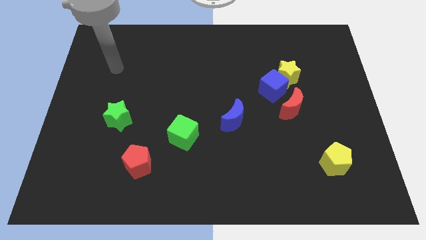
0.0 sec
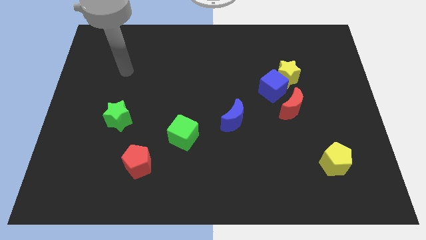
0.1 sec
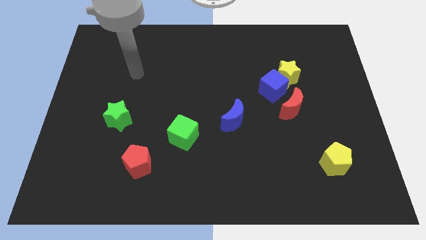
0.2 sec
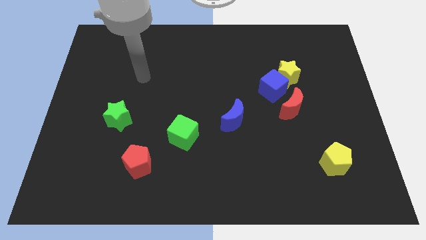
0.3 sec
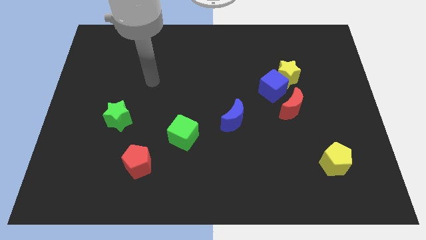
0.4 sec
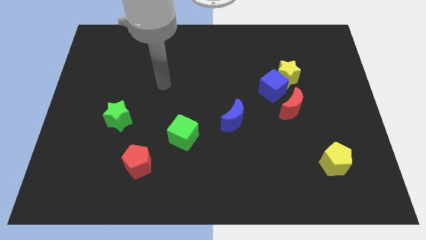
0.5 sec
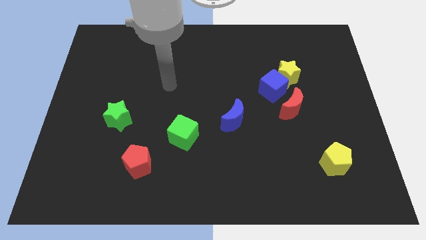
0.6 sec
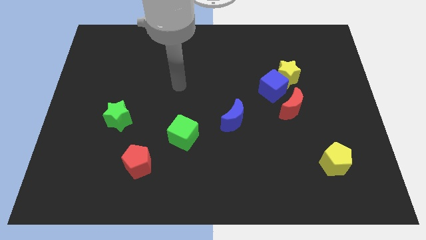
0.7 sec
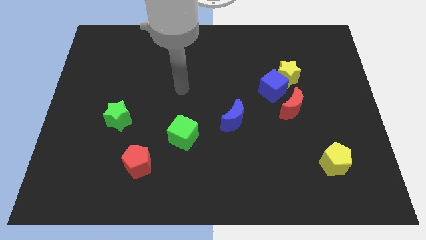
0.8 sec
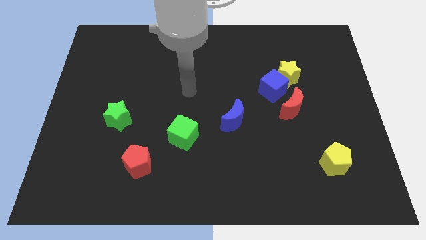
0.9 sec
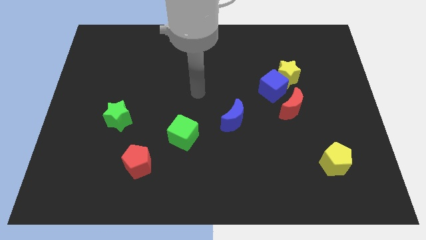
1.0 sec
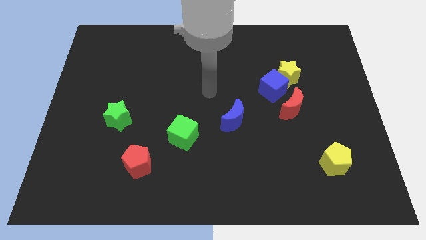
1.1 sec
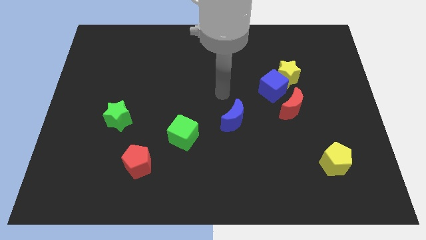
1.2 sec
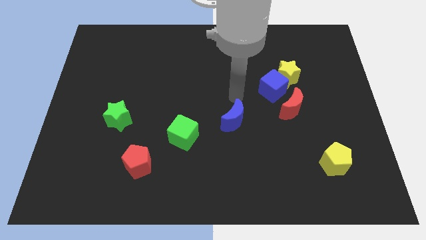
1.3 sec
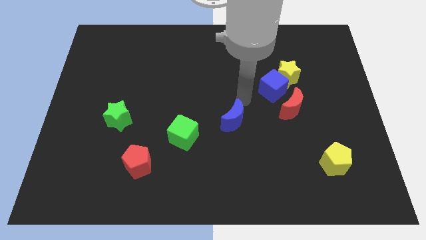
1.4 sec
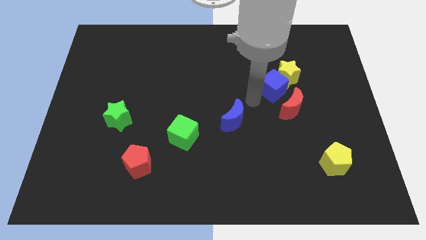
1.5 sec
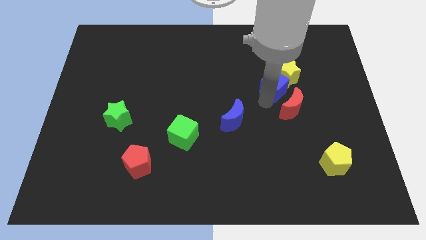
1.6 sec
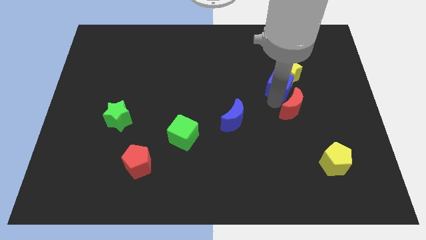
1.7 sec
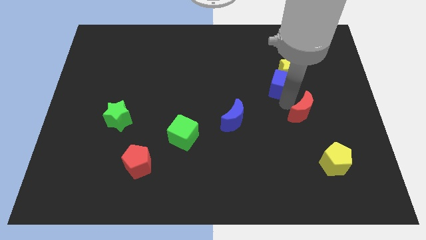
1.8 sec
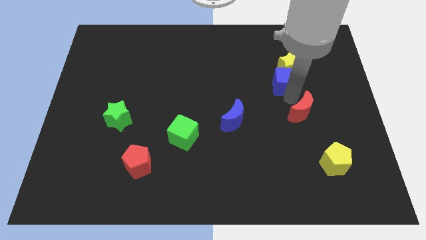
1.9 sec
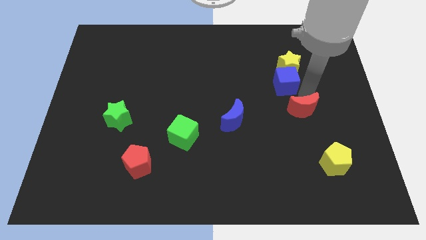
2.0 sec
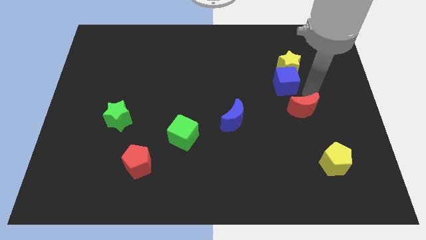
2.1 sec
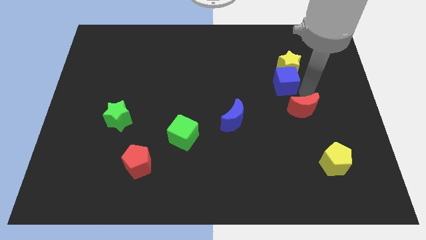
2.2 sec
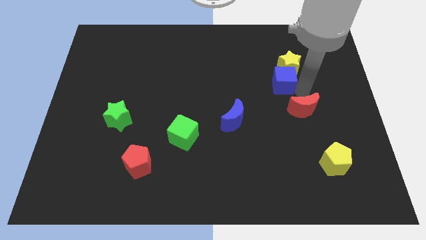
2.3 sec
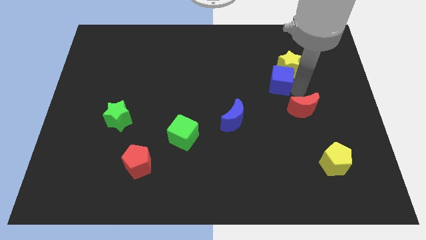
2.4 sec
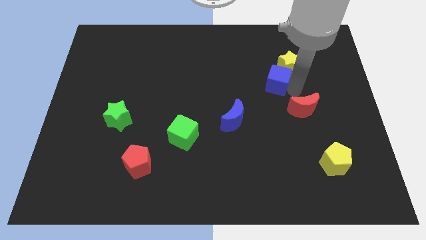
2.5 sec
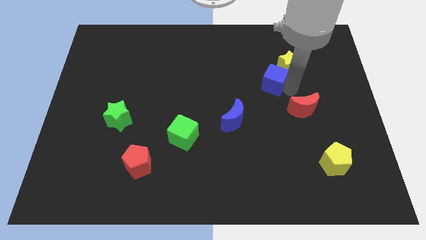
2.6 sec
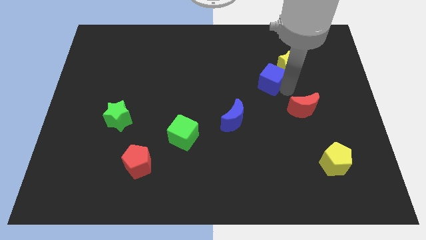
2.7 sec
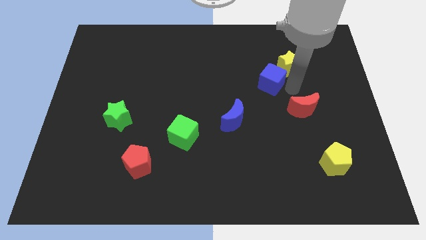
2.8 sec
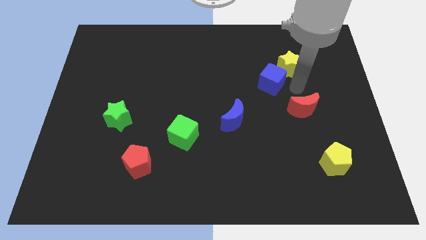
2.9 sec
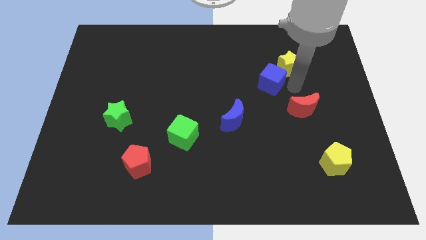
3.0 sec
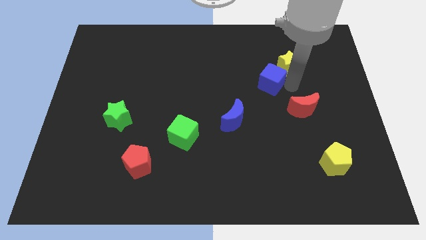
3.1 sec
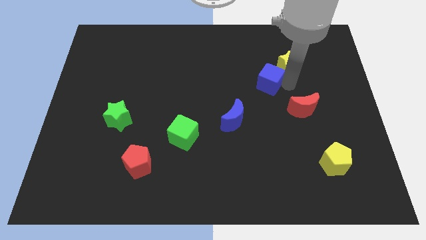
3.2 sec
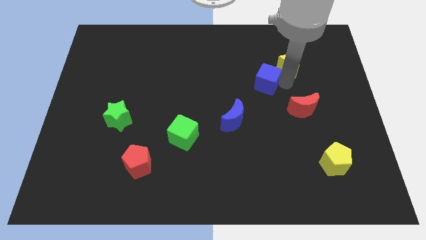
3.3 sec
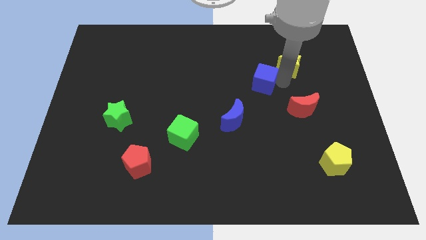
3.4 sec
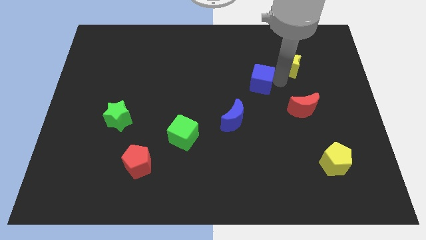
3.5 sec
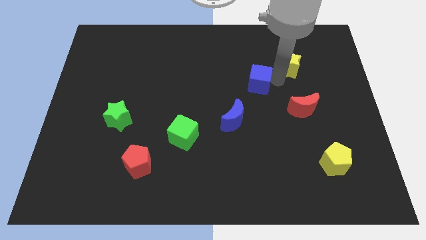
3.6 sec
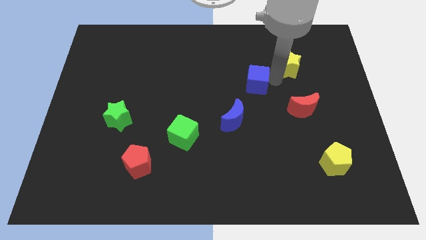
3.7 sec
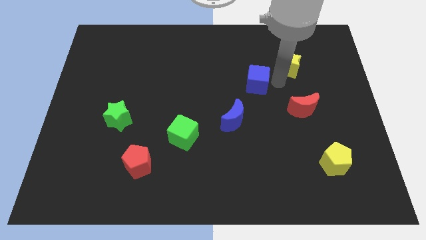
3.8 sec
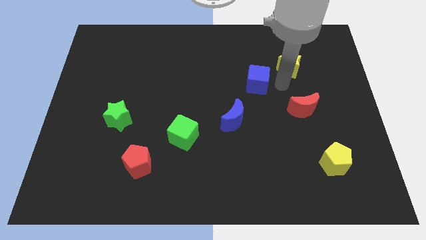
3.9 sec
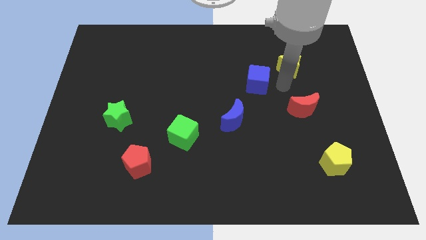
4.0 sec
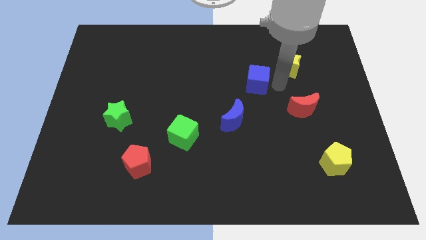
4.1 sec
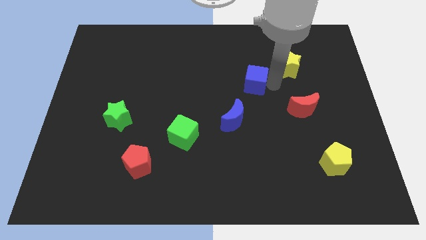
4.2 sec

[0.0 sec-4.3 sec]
pull the blue cube apart from the yellow star and red moon

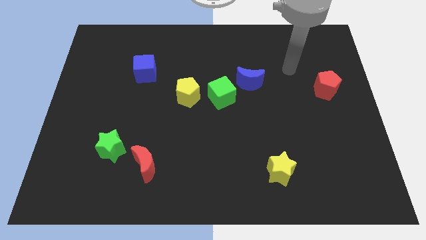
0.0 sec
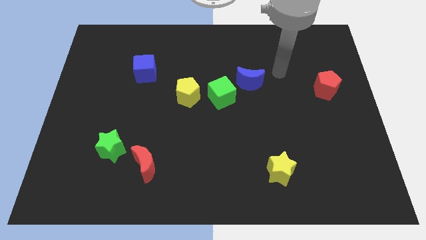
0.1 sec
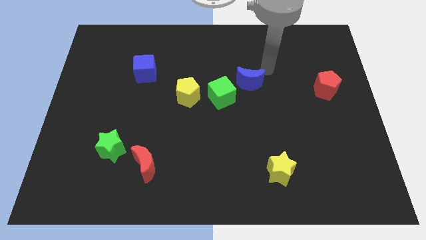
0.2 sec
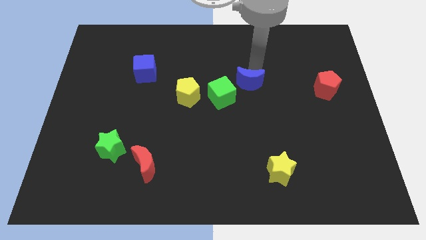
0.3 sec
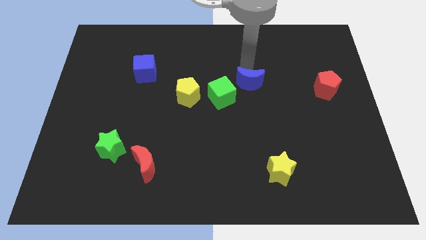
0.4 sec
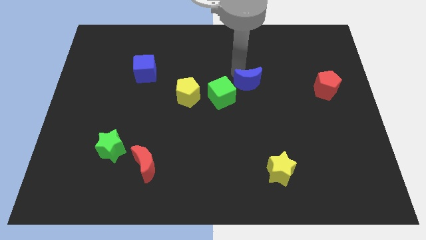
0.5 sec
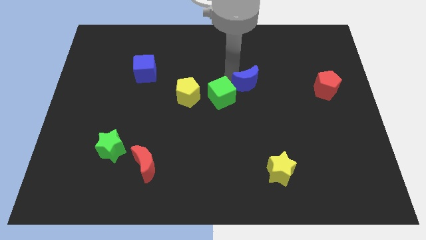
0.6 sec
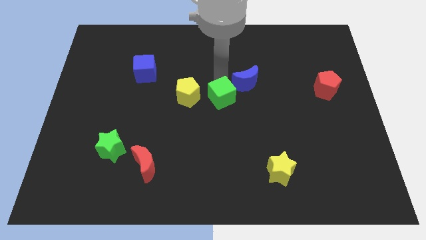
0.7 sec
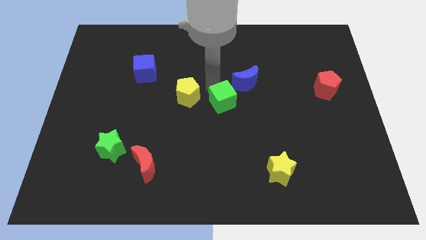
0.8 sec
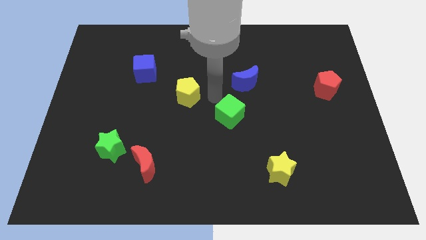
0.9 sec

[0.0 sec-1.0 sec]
separate the yellow pentagon from the green cube

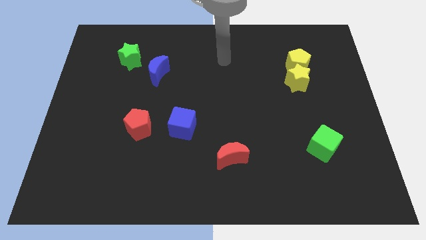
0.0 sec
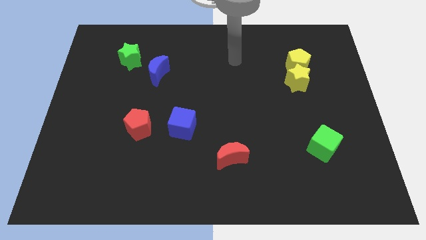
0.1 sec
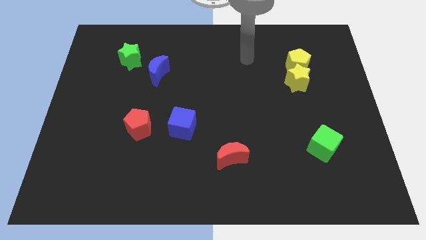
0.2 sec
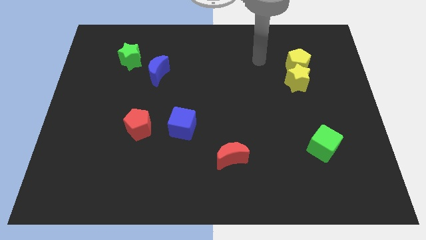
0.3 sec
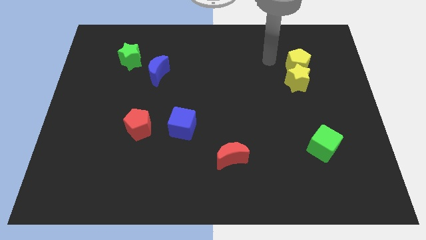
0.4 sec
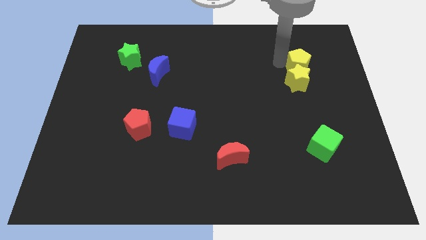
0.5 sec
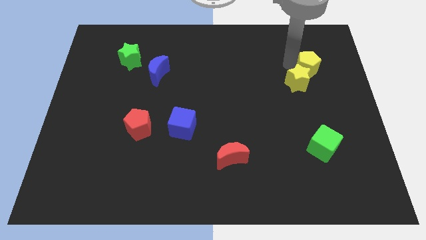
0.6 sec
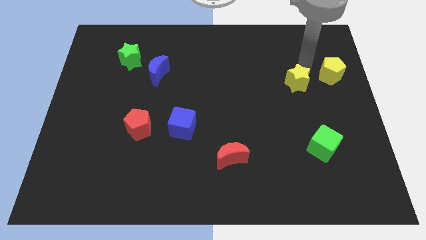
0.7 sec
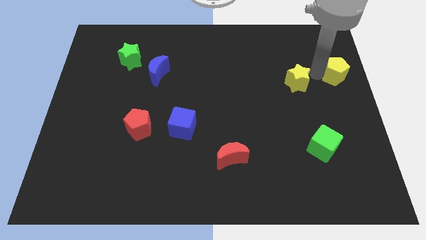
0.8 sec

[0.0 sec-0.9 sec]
separate the yellow star from the yellow pentagon

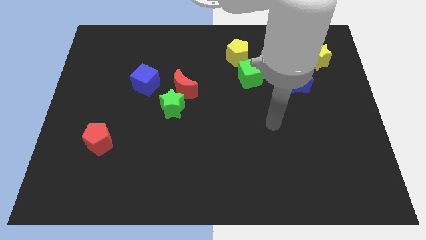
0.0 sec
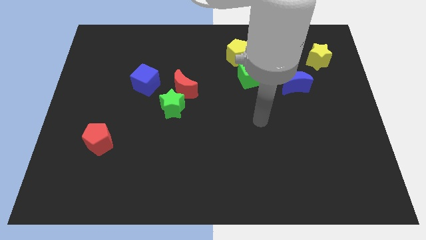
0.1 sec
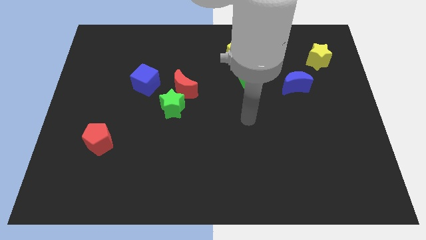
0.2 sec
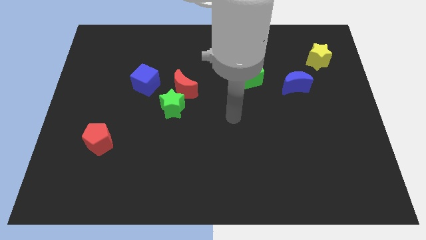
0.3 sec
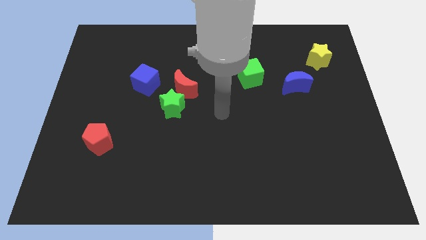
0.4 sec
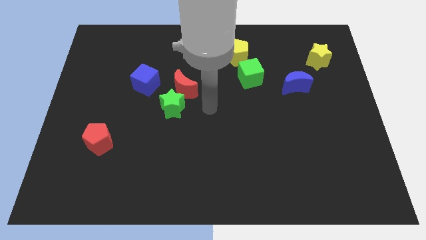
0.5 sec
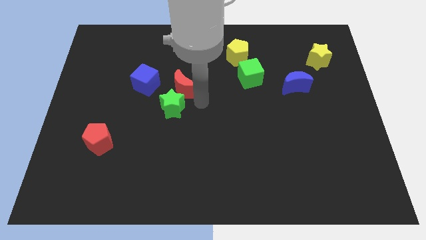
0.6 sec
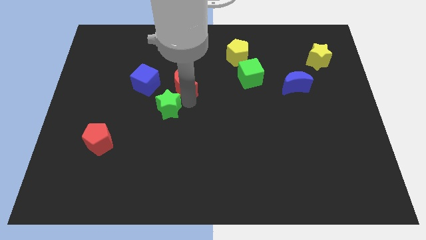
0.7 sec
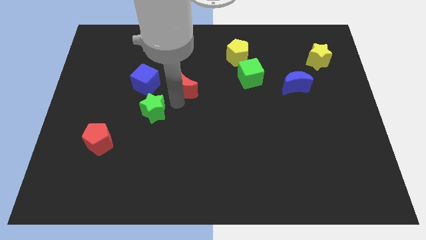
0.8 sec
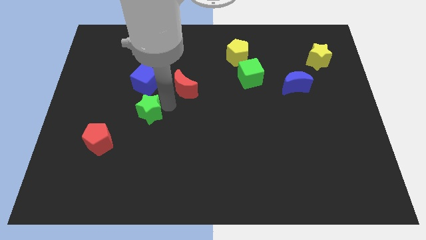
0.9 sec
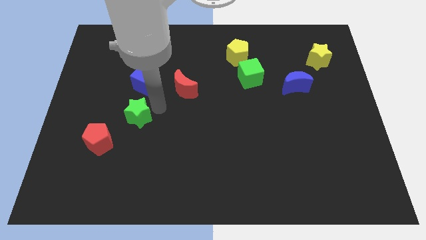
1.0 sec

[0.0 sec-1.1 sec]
move the red moon away from the green star and blue cube

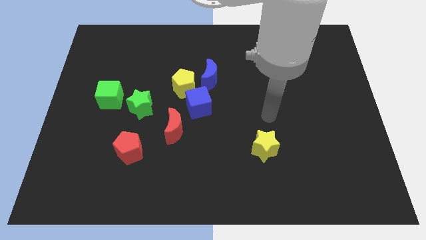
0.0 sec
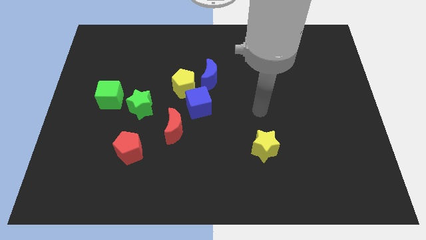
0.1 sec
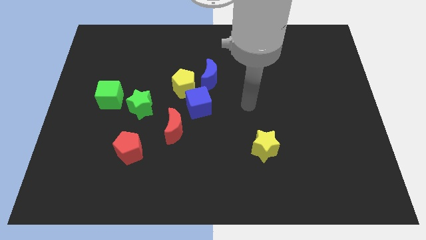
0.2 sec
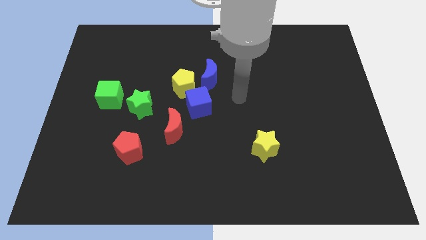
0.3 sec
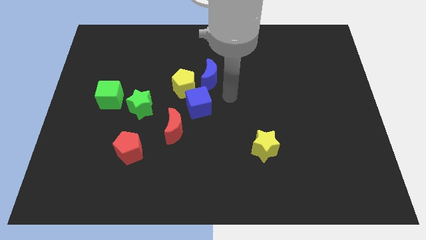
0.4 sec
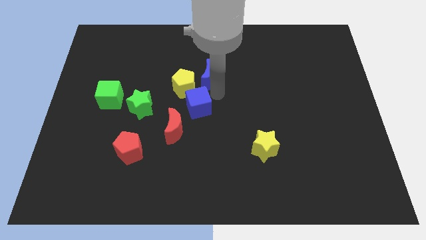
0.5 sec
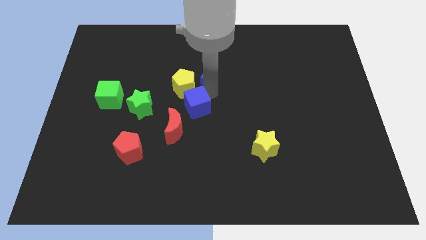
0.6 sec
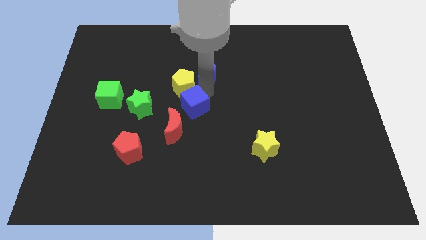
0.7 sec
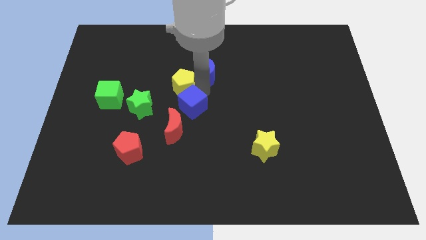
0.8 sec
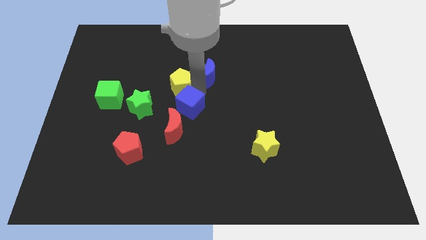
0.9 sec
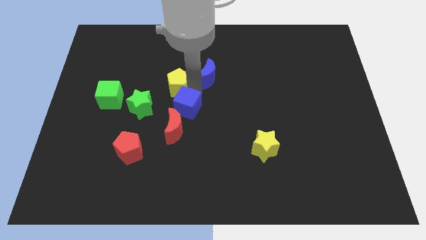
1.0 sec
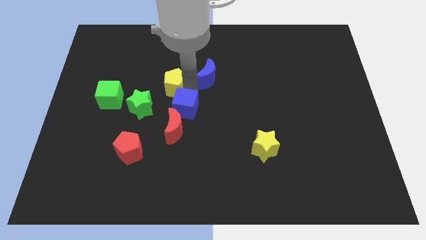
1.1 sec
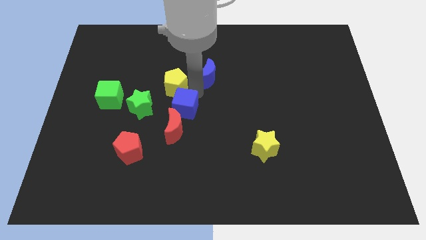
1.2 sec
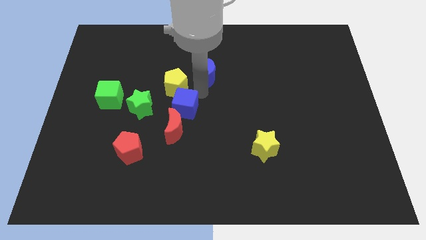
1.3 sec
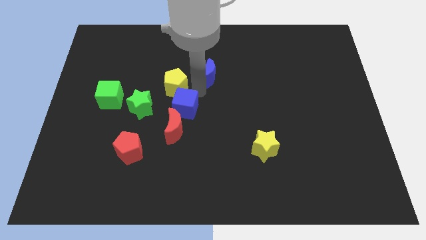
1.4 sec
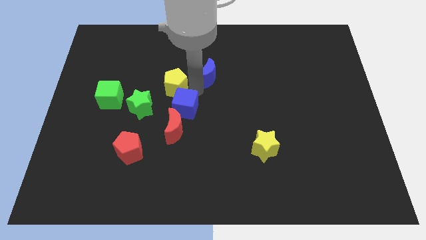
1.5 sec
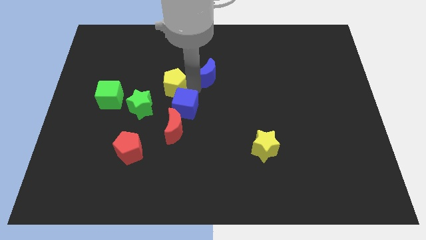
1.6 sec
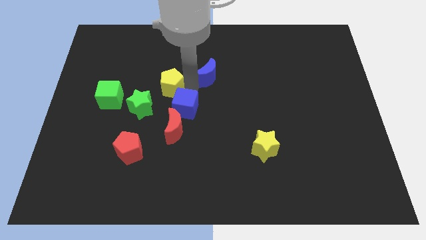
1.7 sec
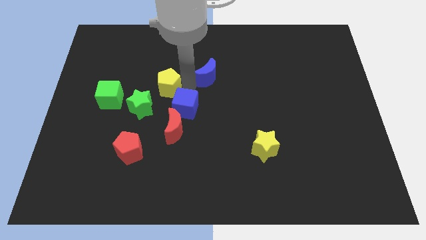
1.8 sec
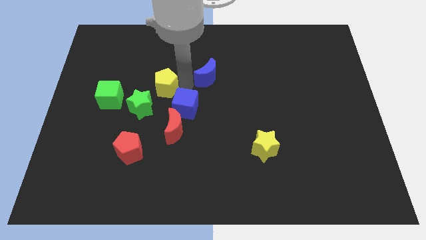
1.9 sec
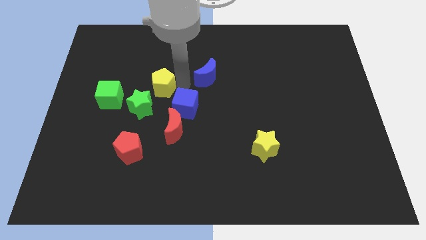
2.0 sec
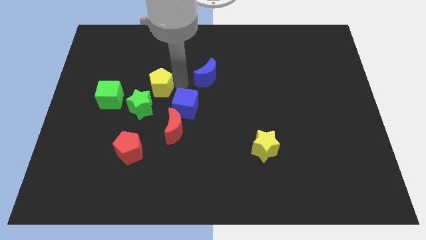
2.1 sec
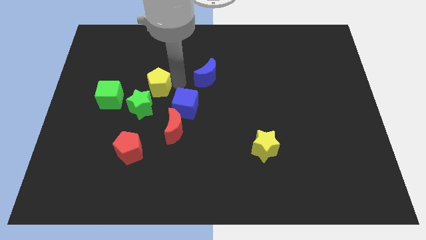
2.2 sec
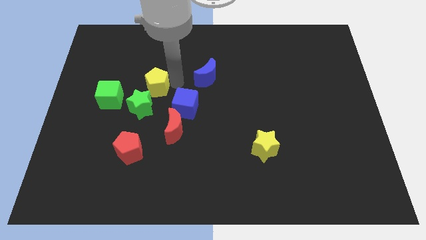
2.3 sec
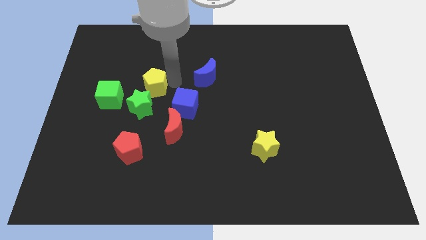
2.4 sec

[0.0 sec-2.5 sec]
pull the yellow pentagon apart from the blue moon and blue cube
